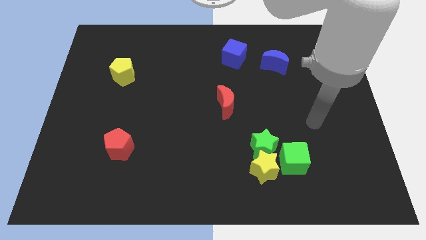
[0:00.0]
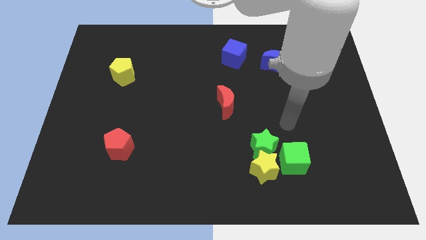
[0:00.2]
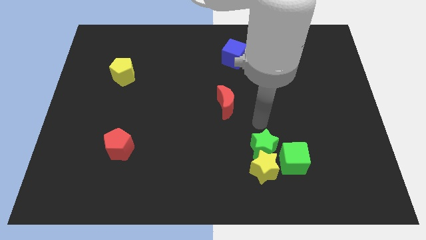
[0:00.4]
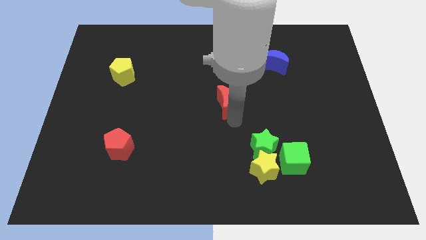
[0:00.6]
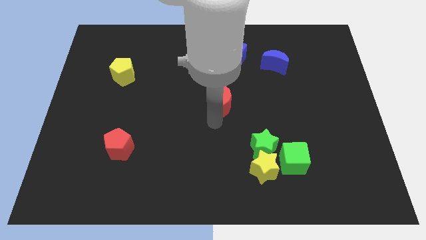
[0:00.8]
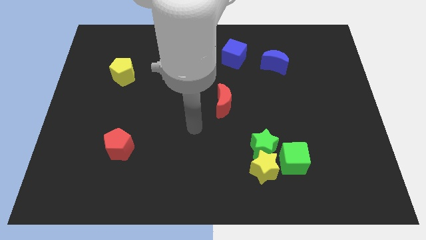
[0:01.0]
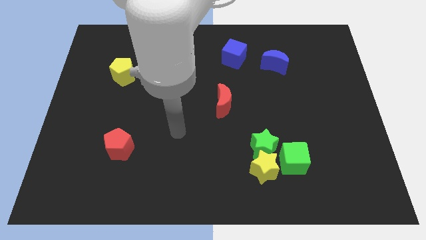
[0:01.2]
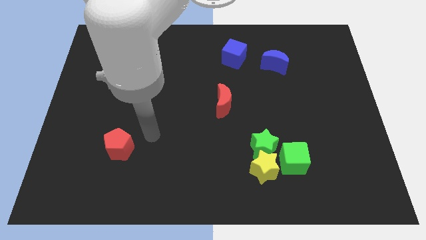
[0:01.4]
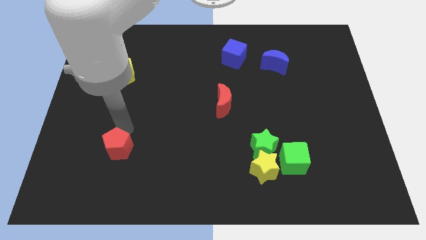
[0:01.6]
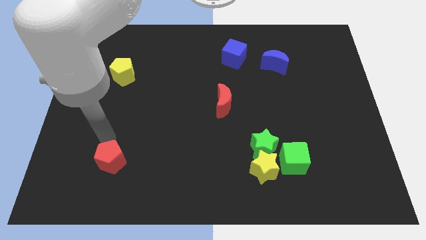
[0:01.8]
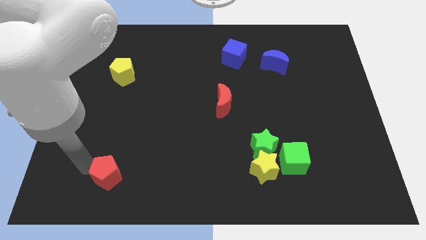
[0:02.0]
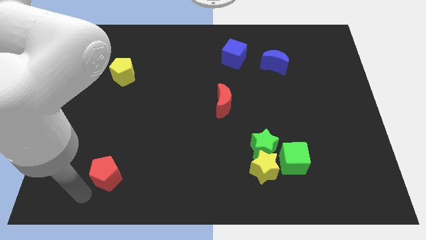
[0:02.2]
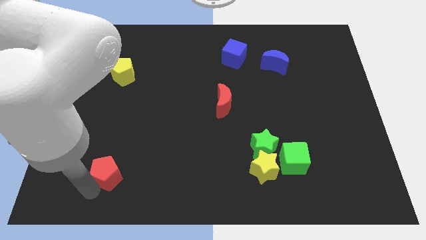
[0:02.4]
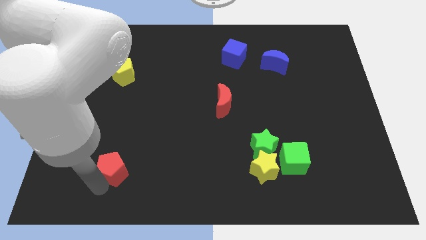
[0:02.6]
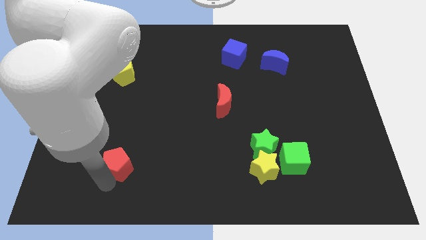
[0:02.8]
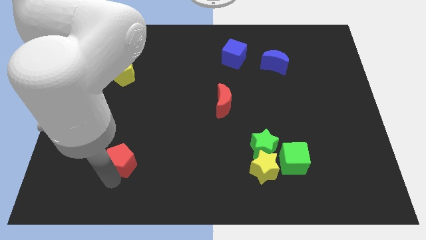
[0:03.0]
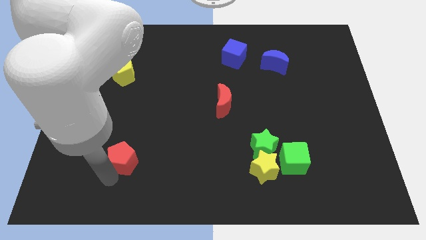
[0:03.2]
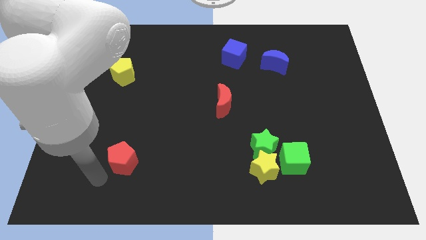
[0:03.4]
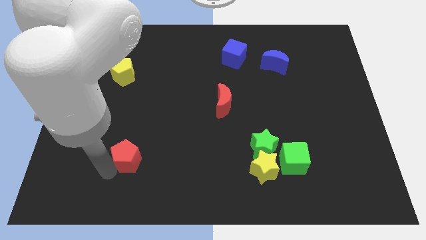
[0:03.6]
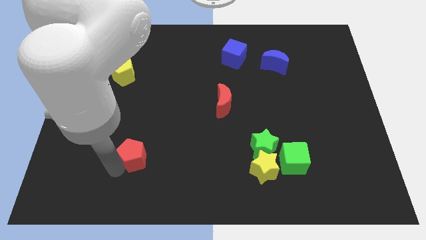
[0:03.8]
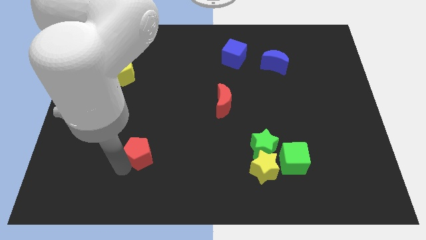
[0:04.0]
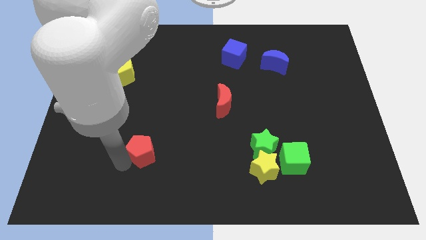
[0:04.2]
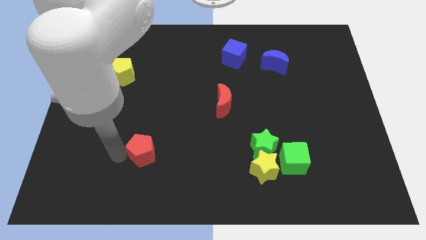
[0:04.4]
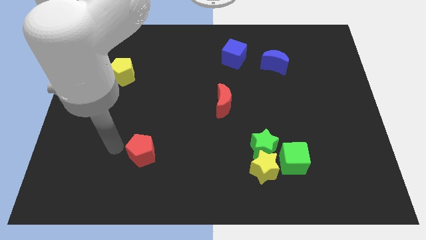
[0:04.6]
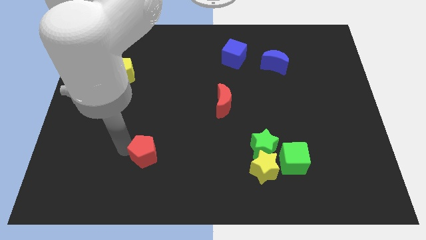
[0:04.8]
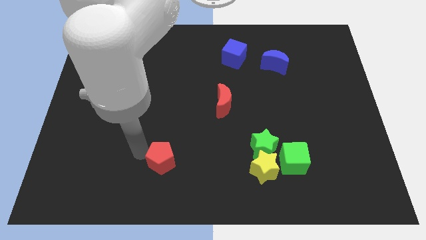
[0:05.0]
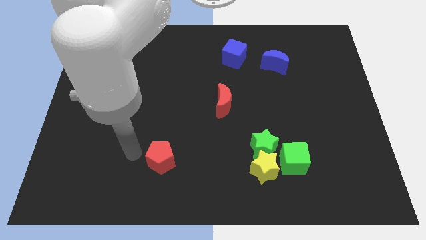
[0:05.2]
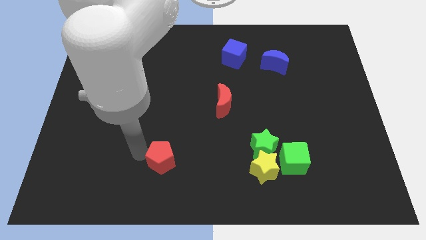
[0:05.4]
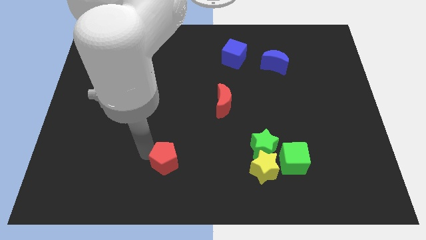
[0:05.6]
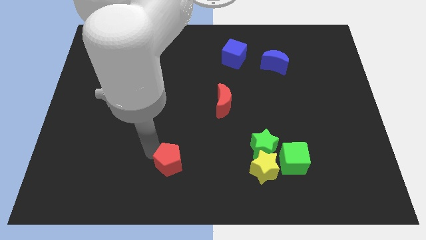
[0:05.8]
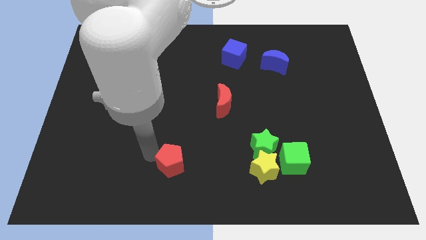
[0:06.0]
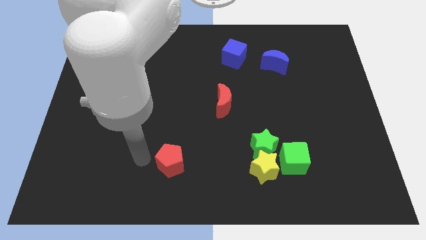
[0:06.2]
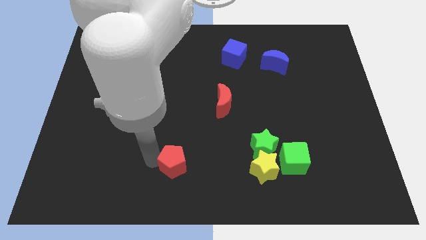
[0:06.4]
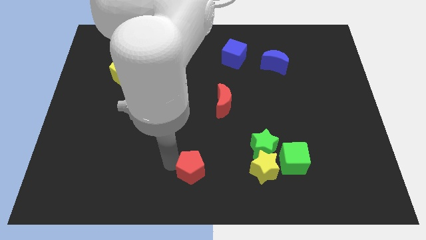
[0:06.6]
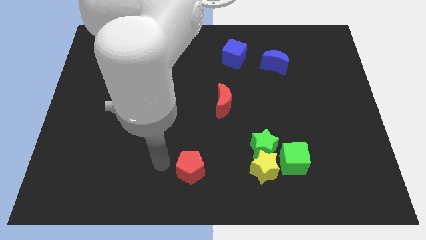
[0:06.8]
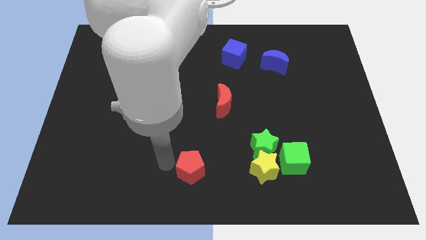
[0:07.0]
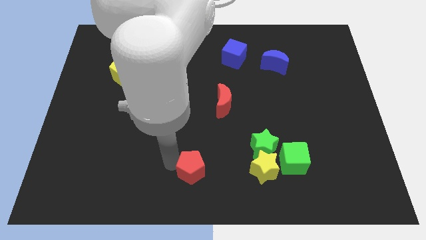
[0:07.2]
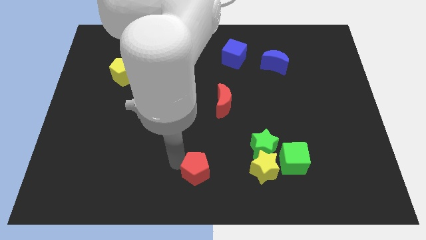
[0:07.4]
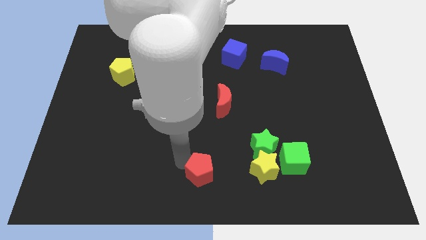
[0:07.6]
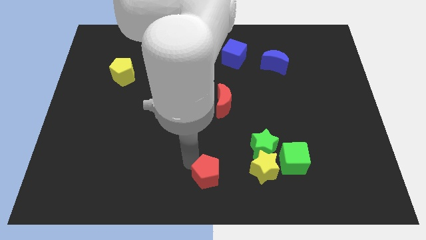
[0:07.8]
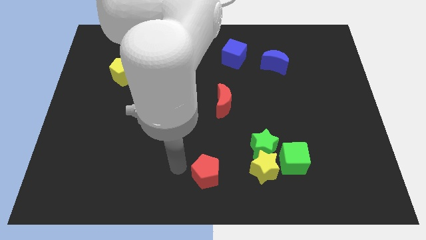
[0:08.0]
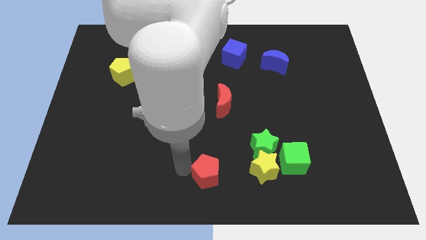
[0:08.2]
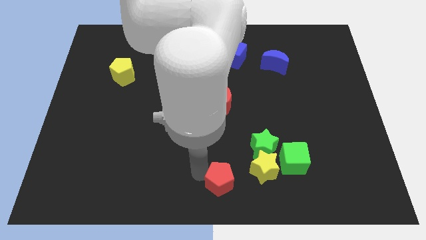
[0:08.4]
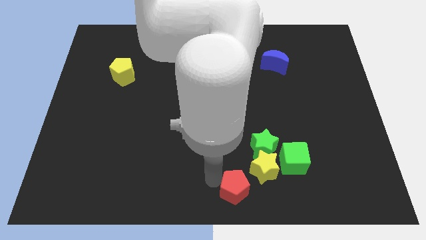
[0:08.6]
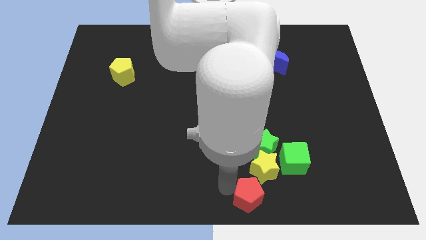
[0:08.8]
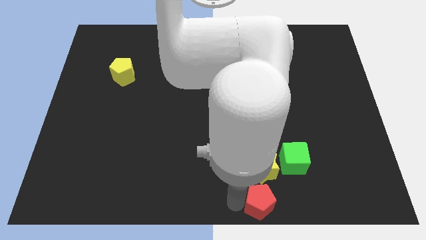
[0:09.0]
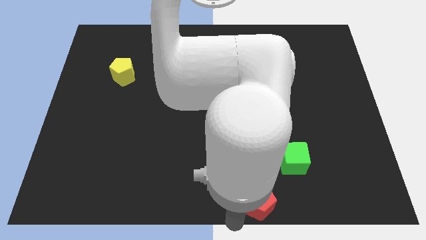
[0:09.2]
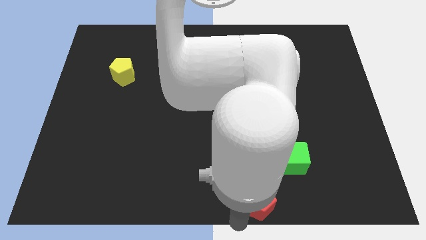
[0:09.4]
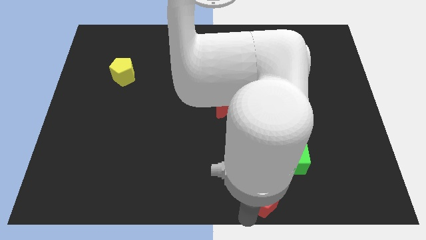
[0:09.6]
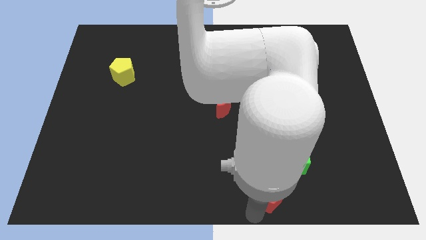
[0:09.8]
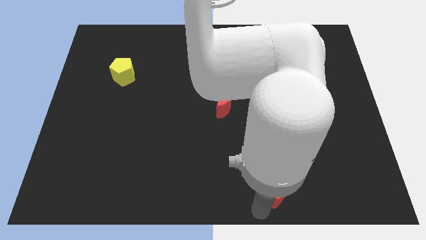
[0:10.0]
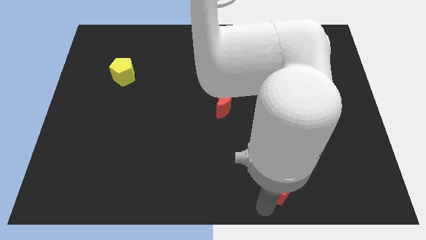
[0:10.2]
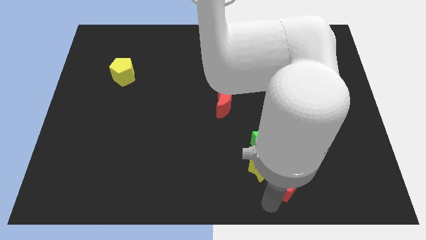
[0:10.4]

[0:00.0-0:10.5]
put the red pentagon to the green cube
